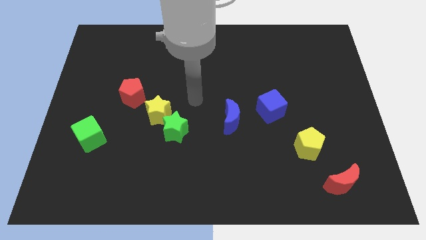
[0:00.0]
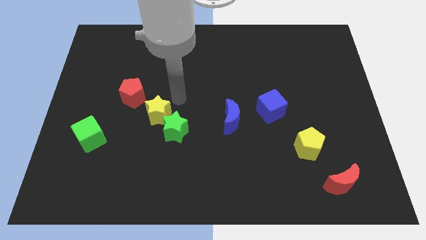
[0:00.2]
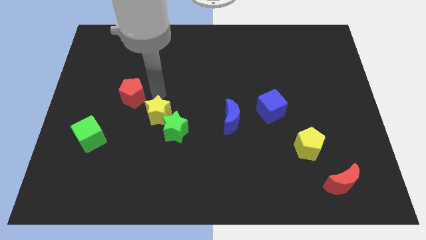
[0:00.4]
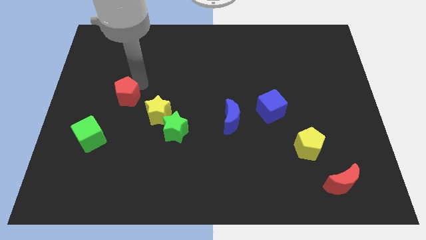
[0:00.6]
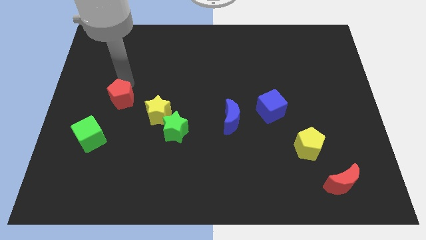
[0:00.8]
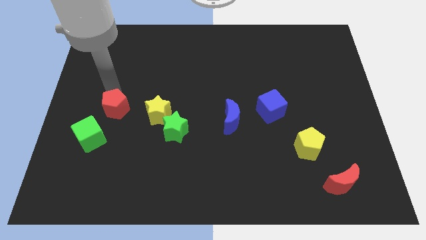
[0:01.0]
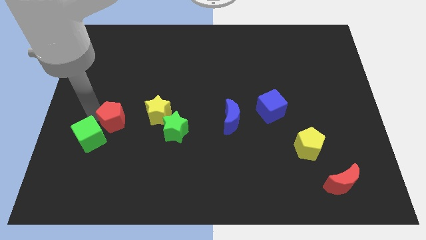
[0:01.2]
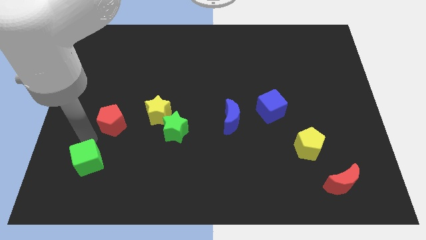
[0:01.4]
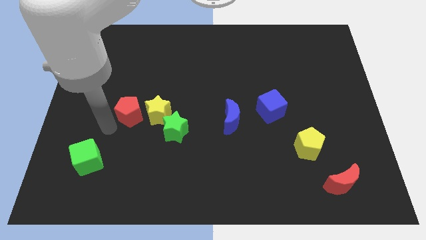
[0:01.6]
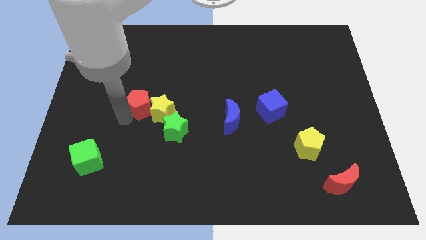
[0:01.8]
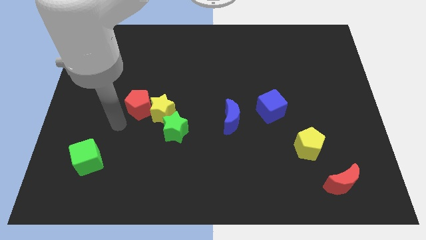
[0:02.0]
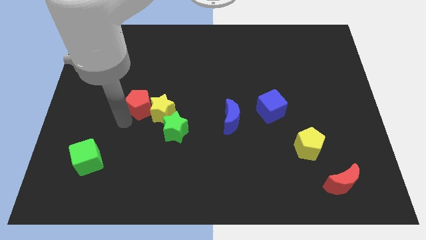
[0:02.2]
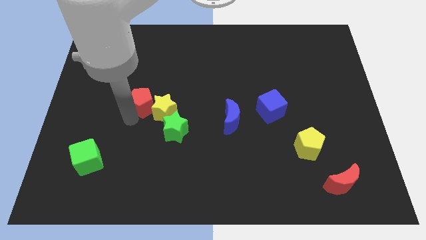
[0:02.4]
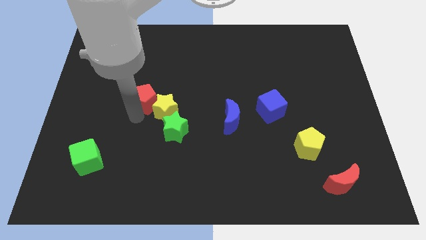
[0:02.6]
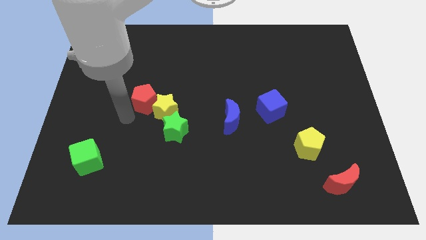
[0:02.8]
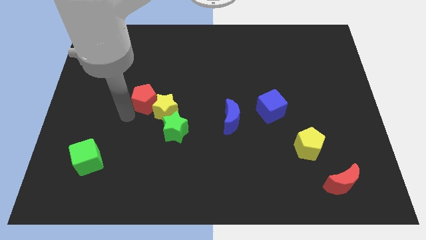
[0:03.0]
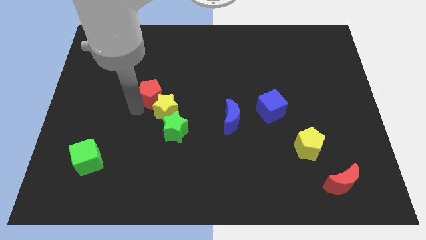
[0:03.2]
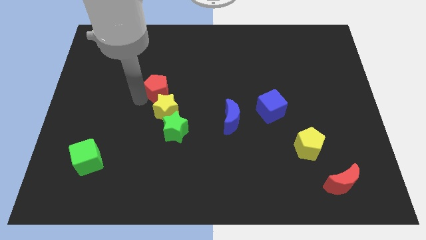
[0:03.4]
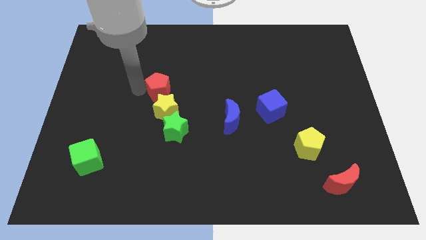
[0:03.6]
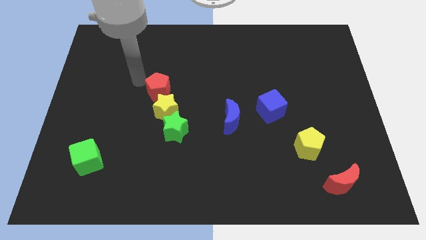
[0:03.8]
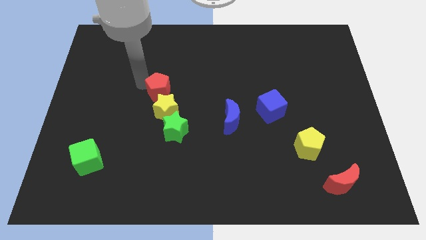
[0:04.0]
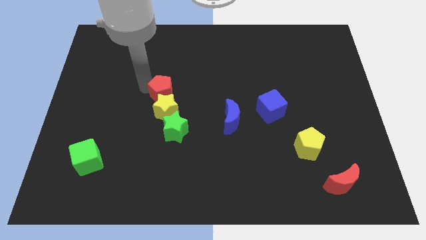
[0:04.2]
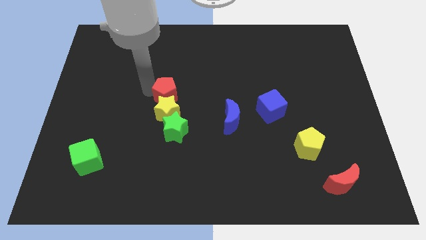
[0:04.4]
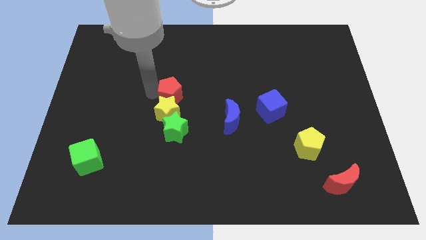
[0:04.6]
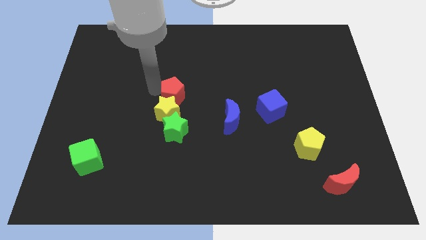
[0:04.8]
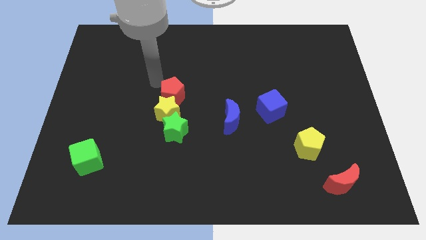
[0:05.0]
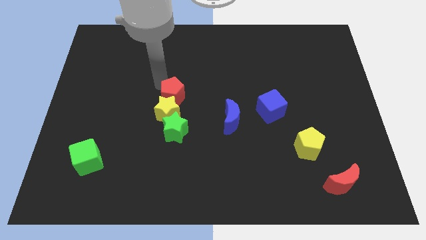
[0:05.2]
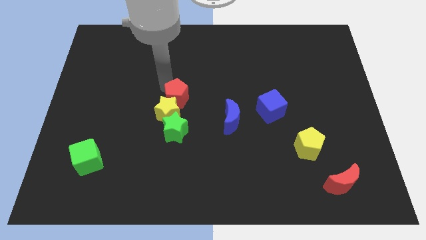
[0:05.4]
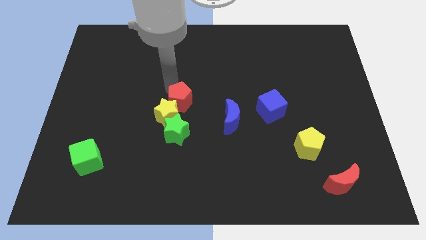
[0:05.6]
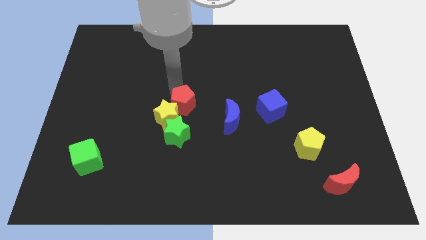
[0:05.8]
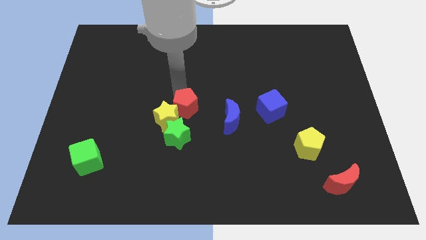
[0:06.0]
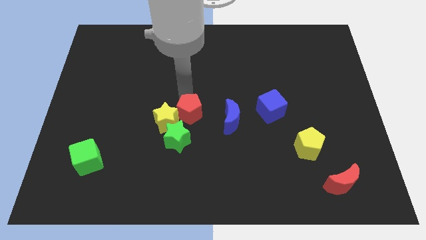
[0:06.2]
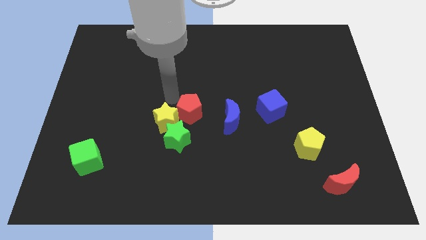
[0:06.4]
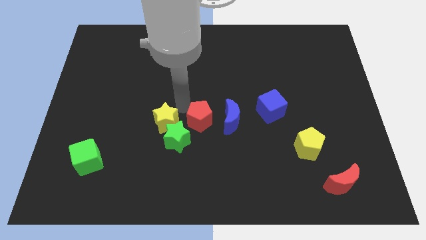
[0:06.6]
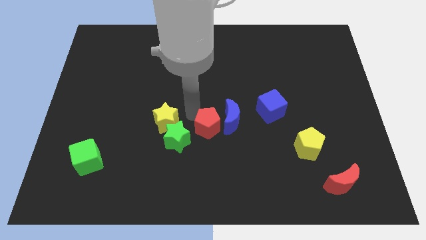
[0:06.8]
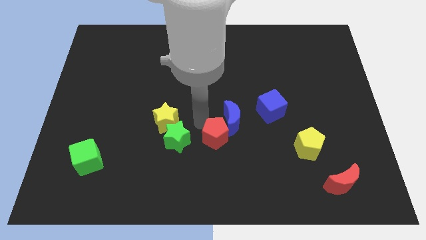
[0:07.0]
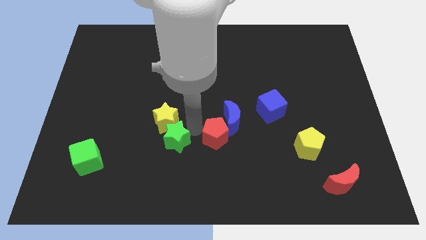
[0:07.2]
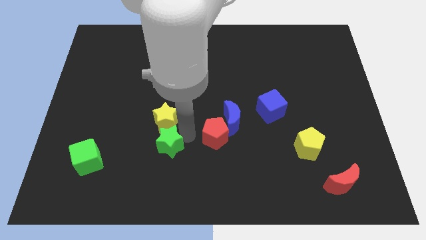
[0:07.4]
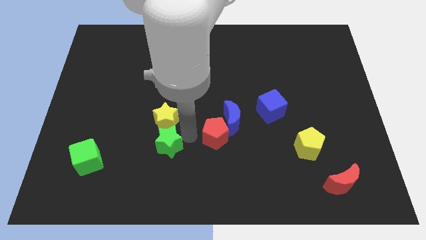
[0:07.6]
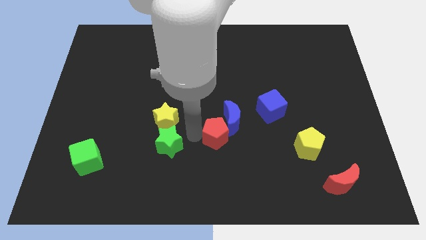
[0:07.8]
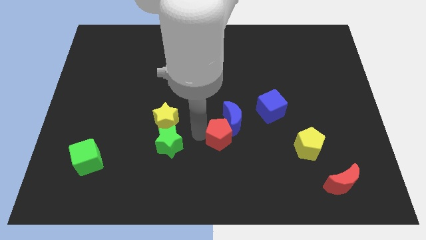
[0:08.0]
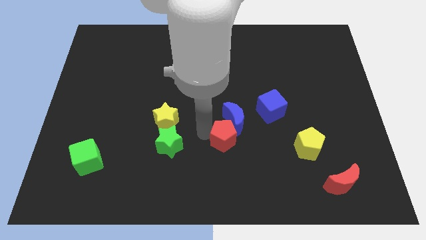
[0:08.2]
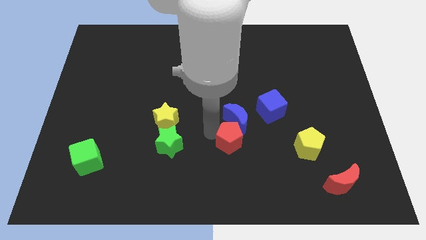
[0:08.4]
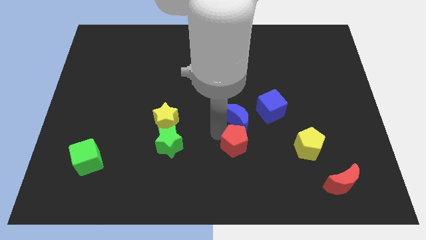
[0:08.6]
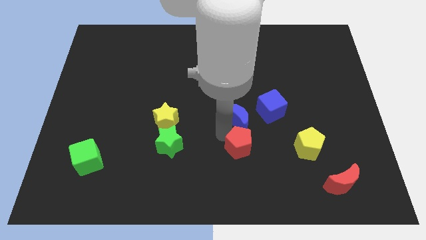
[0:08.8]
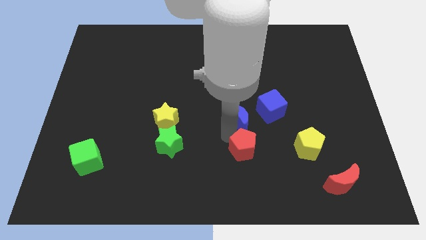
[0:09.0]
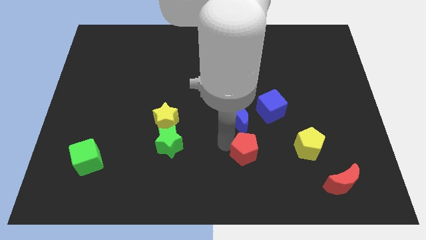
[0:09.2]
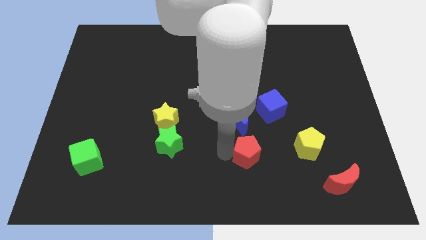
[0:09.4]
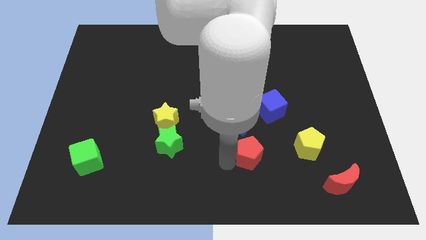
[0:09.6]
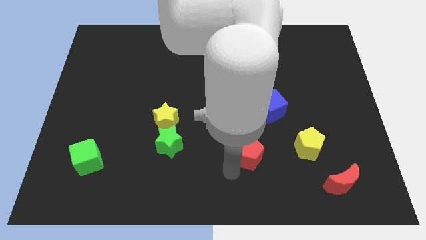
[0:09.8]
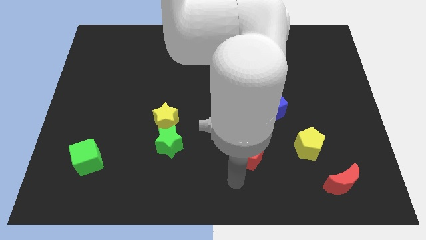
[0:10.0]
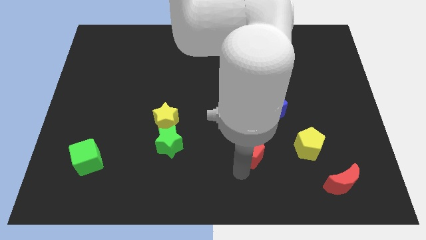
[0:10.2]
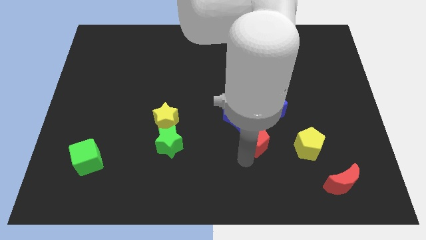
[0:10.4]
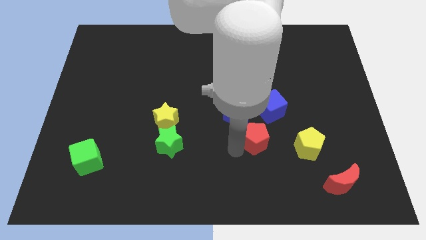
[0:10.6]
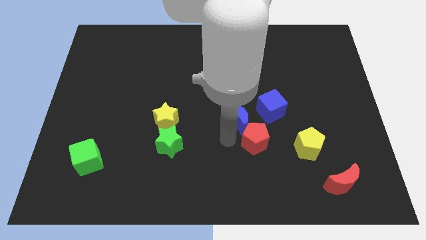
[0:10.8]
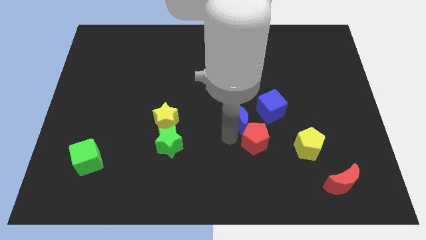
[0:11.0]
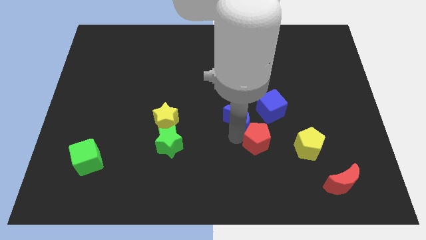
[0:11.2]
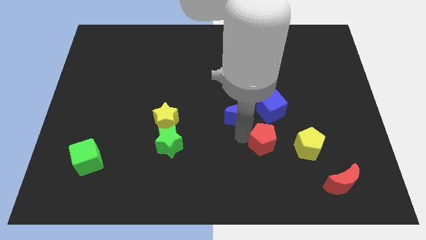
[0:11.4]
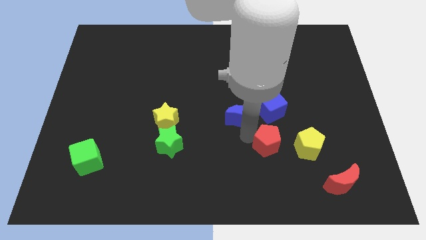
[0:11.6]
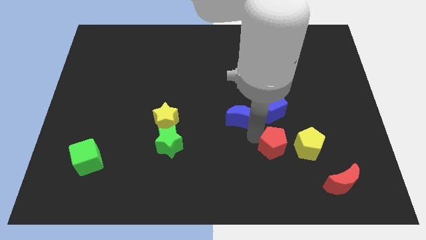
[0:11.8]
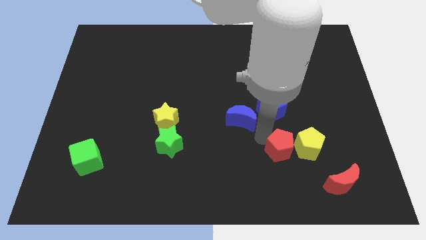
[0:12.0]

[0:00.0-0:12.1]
slide the red pentagon next to the yellow pentagon
